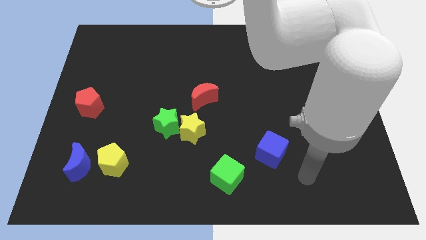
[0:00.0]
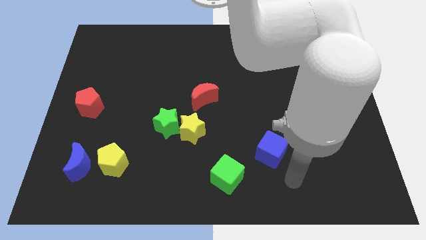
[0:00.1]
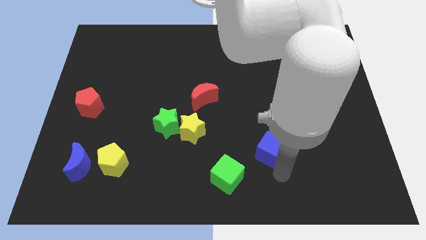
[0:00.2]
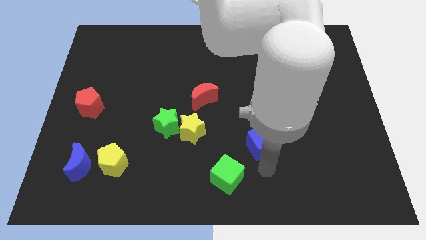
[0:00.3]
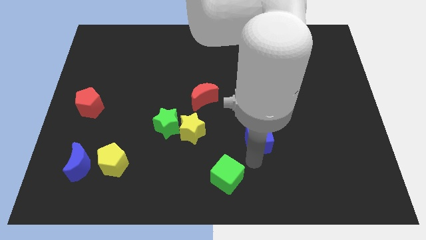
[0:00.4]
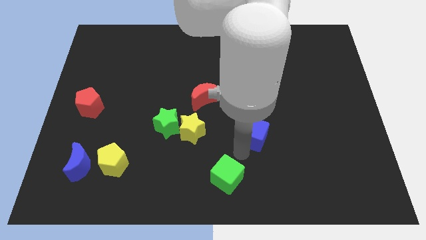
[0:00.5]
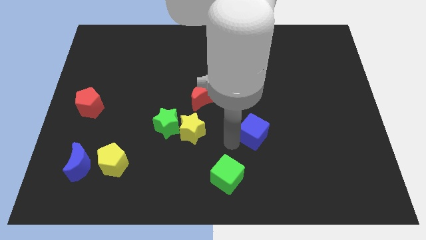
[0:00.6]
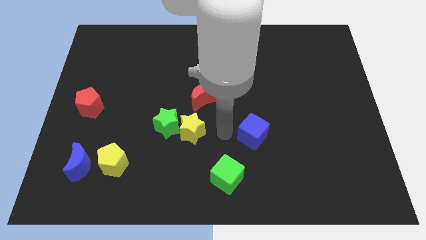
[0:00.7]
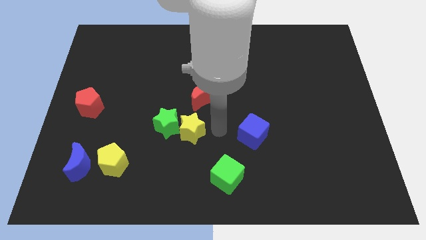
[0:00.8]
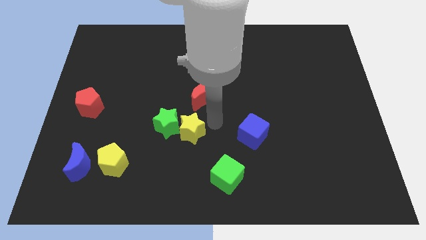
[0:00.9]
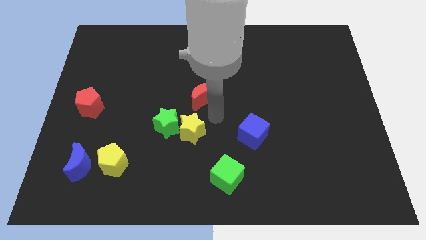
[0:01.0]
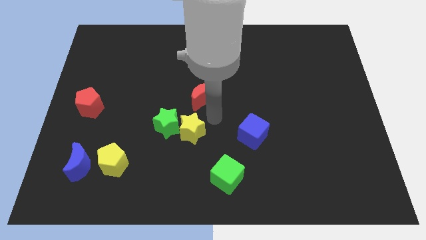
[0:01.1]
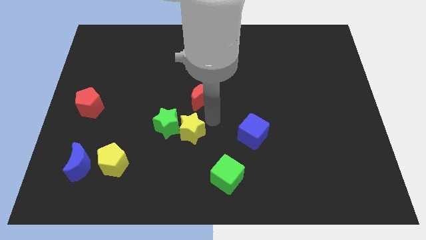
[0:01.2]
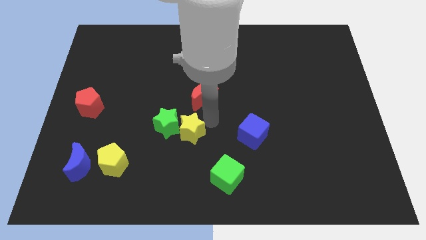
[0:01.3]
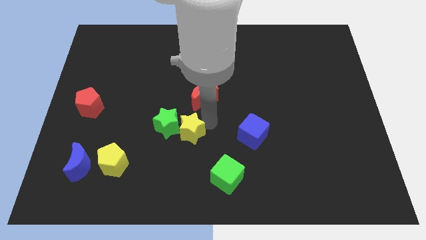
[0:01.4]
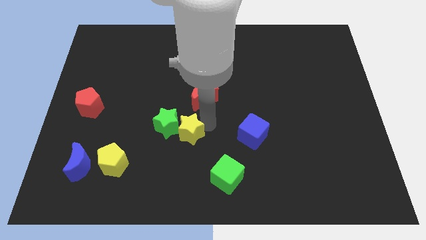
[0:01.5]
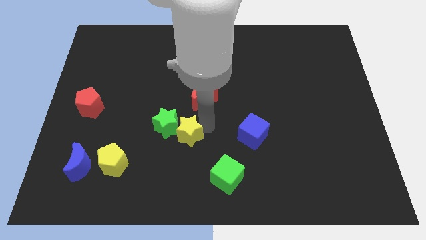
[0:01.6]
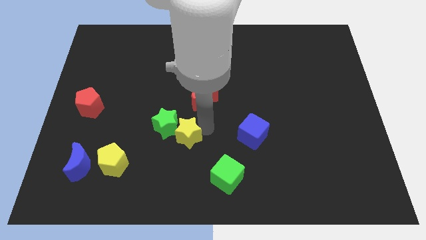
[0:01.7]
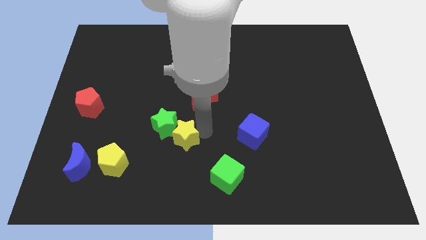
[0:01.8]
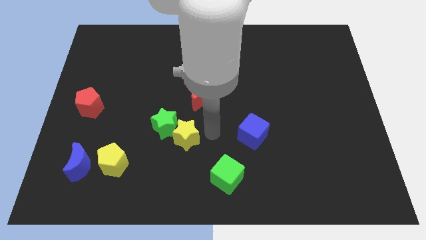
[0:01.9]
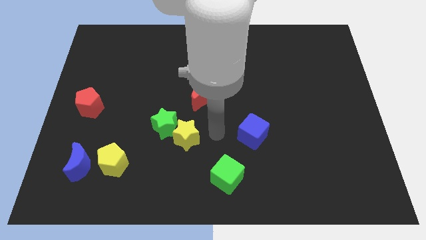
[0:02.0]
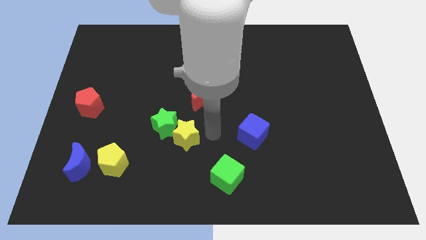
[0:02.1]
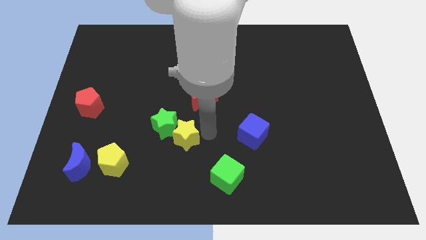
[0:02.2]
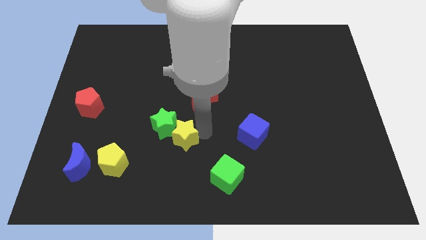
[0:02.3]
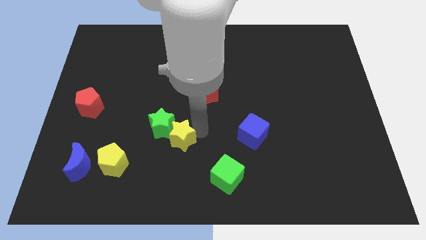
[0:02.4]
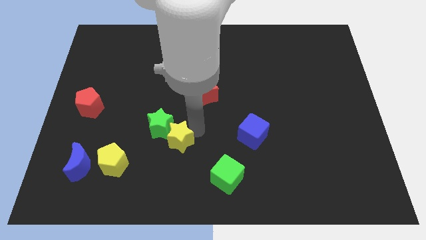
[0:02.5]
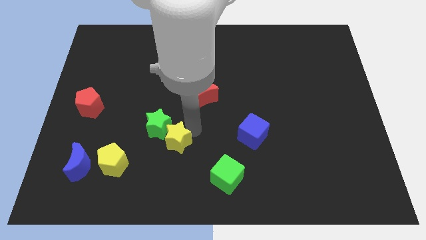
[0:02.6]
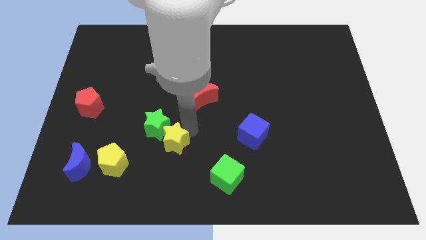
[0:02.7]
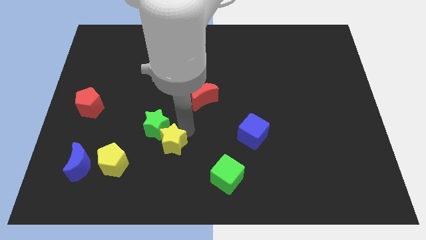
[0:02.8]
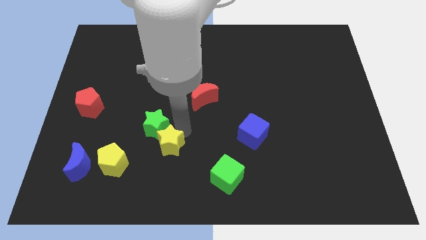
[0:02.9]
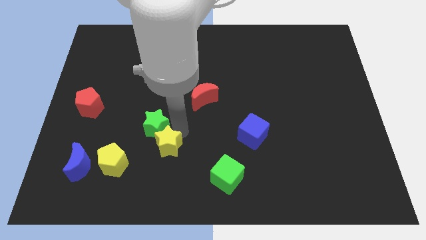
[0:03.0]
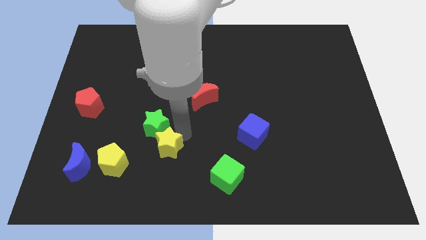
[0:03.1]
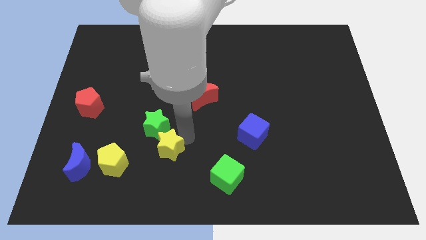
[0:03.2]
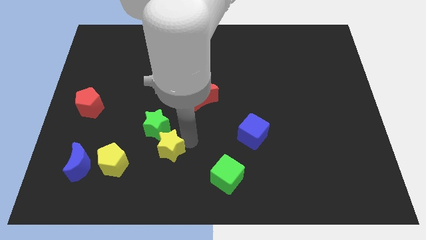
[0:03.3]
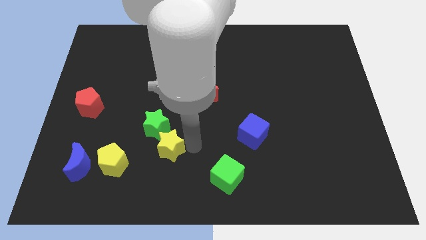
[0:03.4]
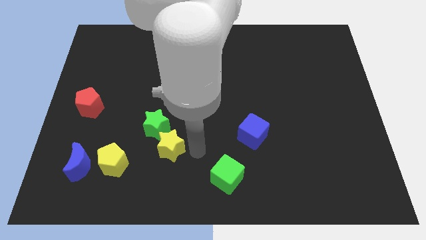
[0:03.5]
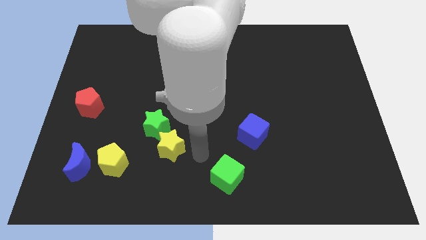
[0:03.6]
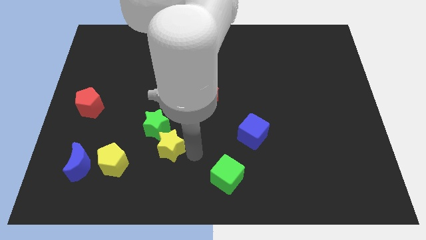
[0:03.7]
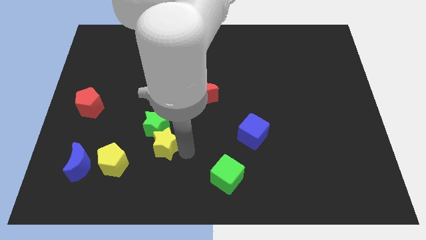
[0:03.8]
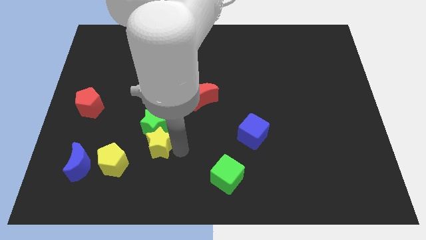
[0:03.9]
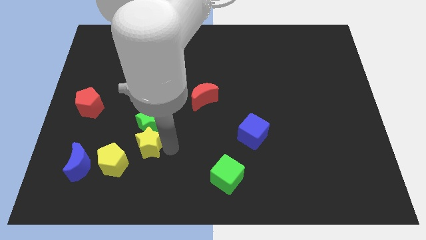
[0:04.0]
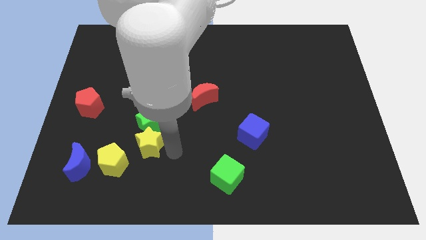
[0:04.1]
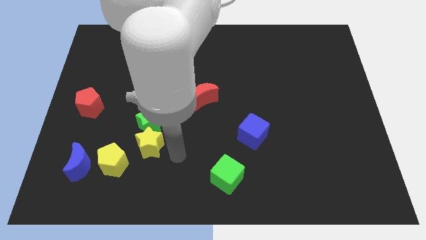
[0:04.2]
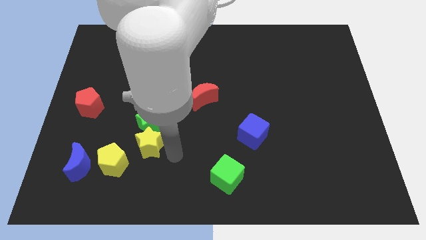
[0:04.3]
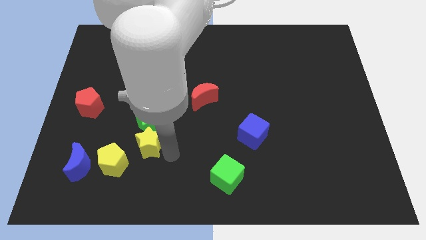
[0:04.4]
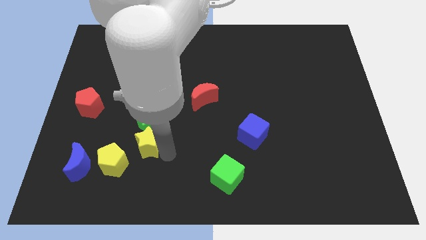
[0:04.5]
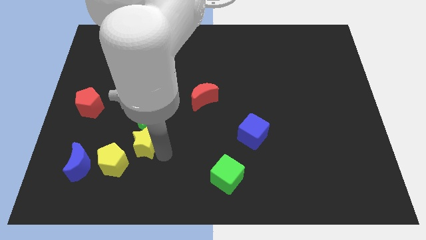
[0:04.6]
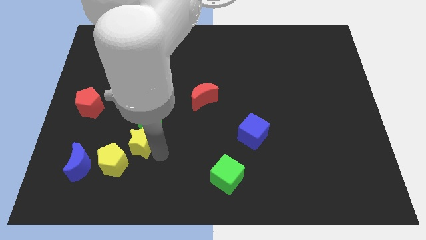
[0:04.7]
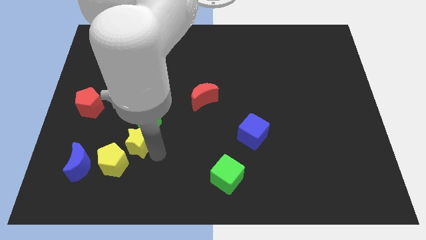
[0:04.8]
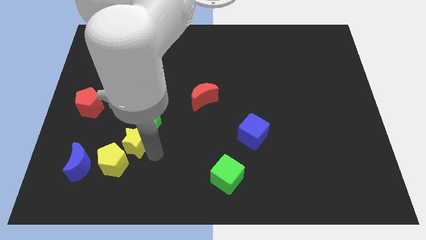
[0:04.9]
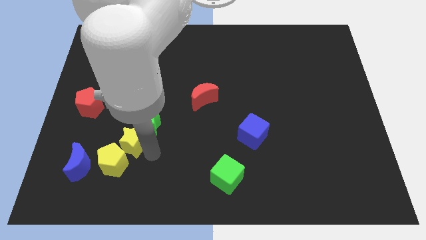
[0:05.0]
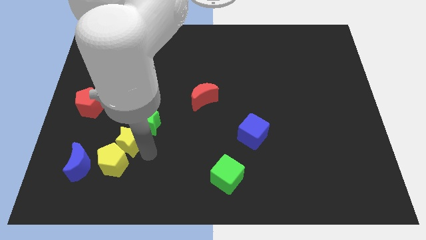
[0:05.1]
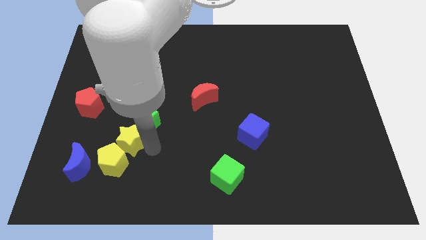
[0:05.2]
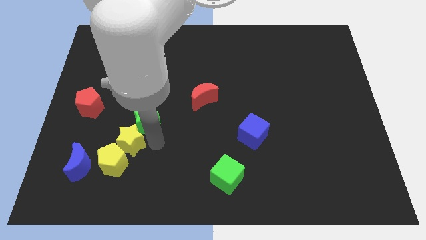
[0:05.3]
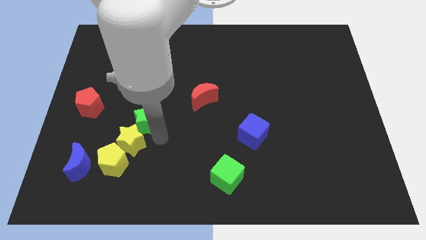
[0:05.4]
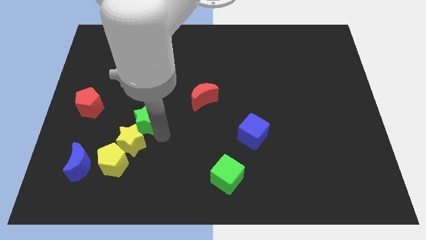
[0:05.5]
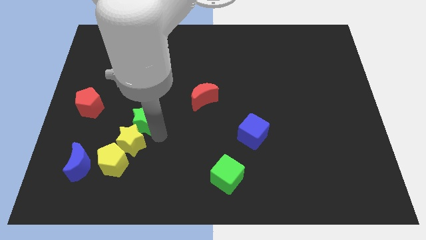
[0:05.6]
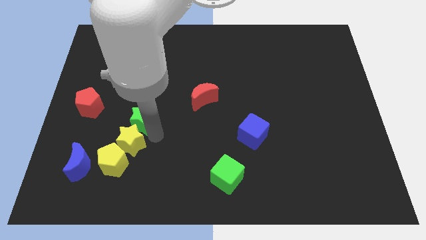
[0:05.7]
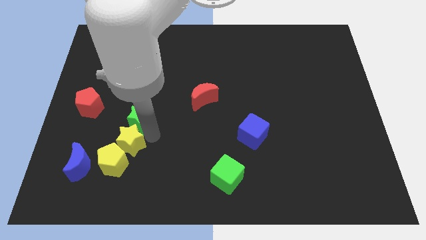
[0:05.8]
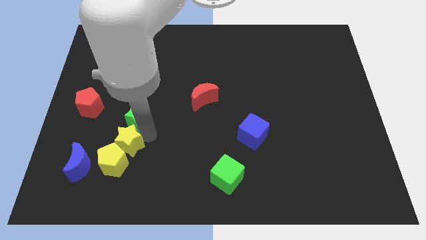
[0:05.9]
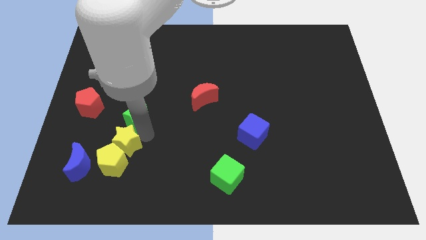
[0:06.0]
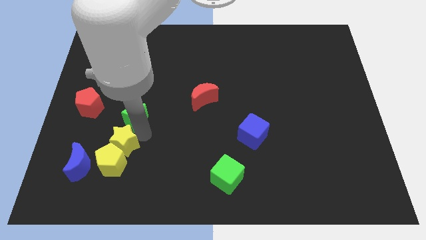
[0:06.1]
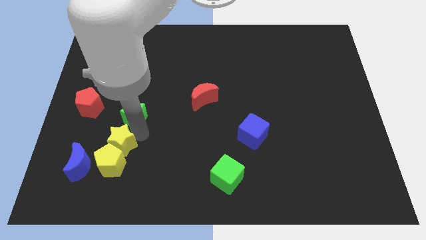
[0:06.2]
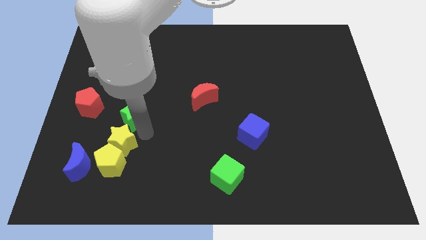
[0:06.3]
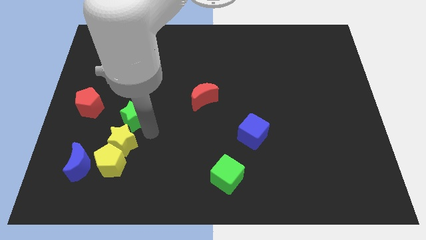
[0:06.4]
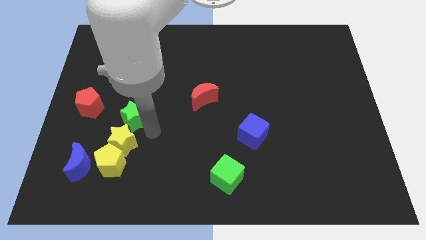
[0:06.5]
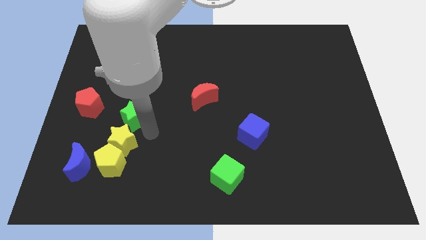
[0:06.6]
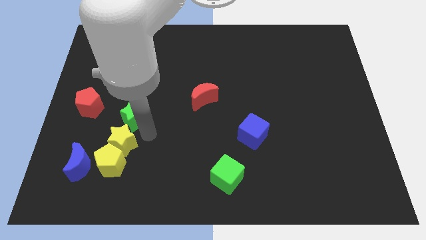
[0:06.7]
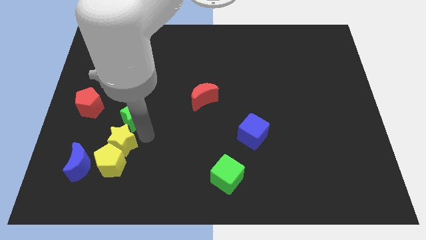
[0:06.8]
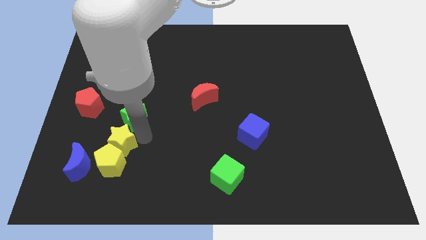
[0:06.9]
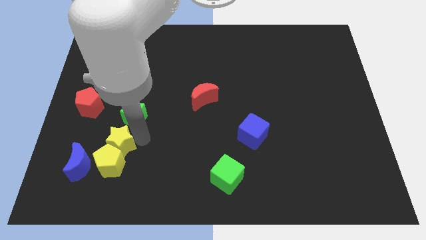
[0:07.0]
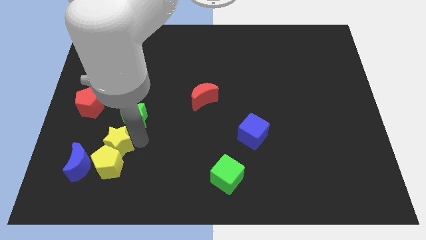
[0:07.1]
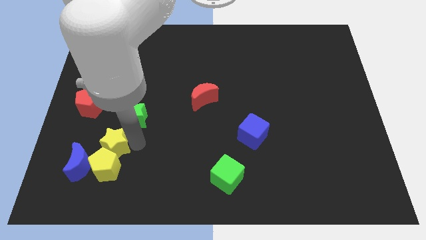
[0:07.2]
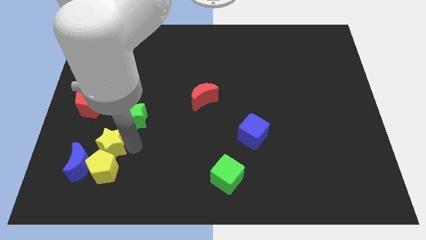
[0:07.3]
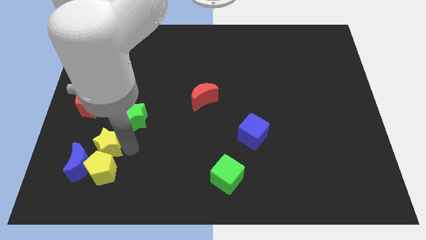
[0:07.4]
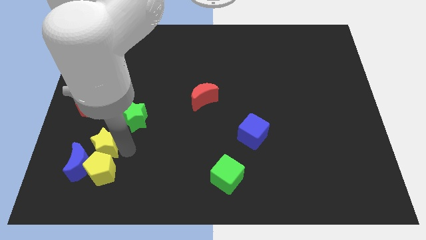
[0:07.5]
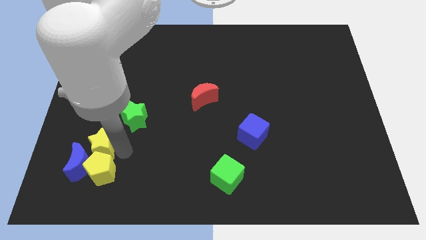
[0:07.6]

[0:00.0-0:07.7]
put the yellow star to the blue moon
